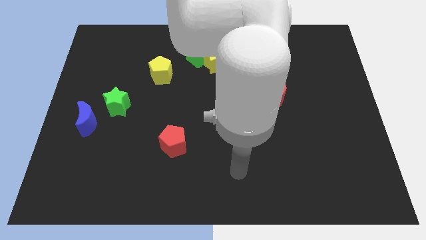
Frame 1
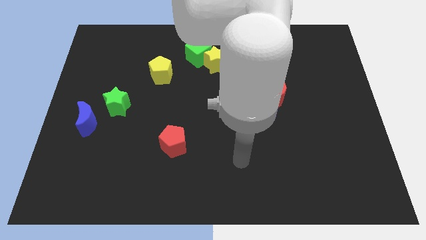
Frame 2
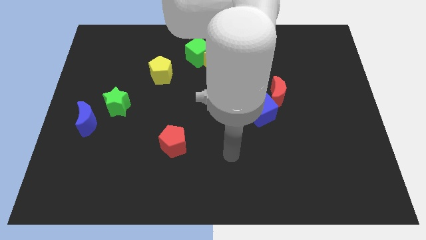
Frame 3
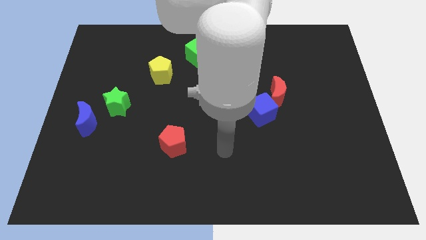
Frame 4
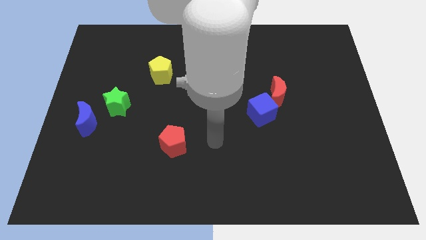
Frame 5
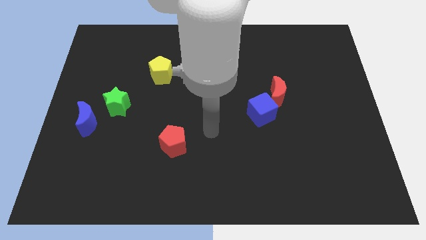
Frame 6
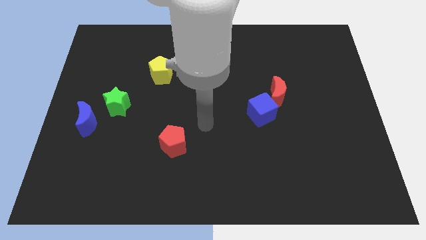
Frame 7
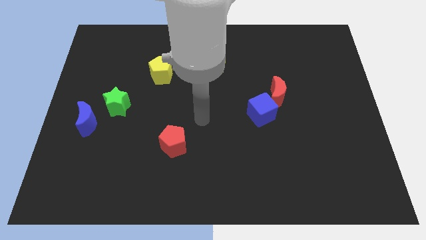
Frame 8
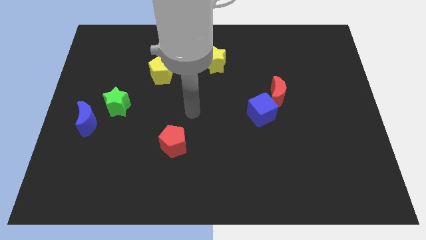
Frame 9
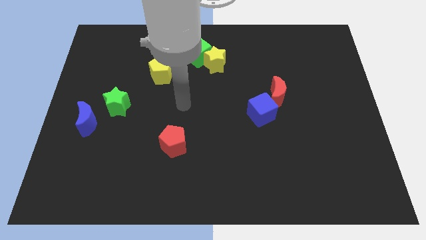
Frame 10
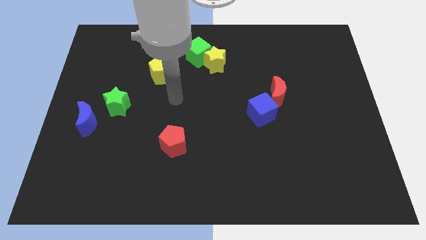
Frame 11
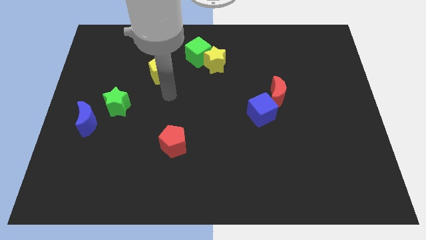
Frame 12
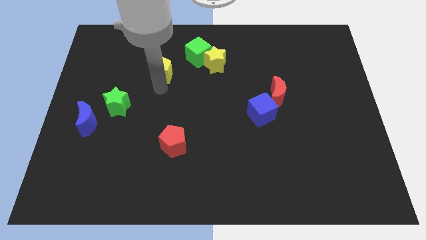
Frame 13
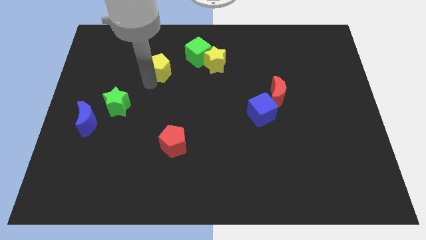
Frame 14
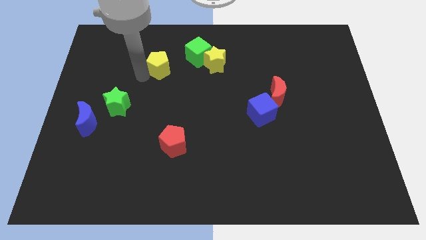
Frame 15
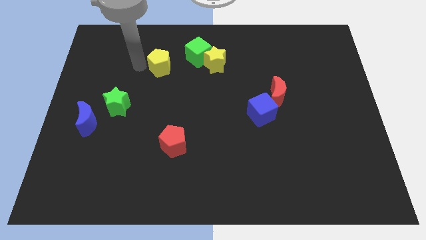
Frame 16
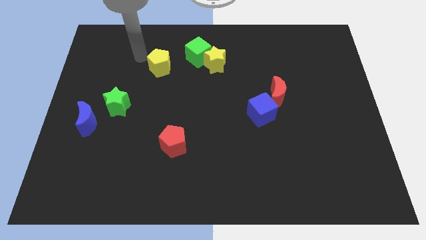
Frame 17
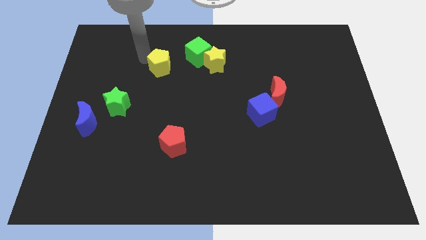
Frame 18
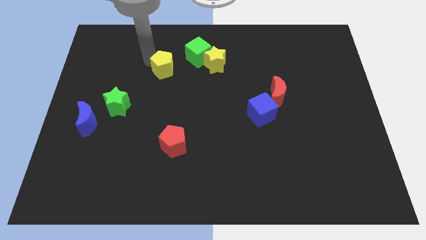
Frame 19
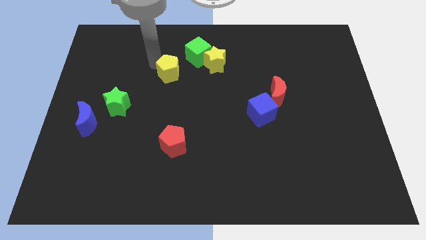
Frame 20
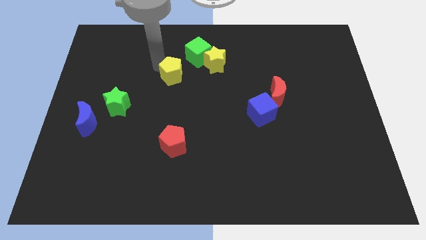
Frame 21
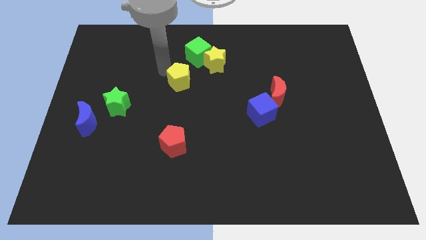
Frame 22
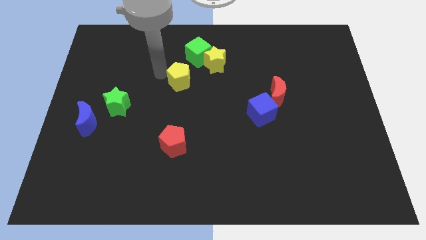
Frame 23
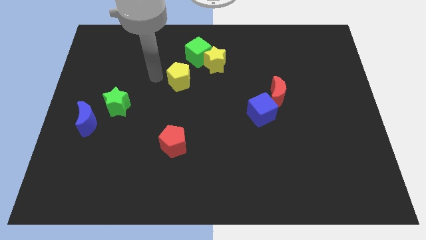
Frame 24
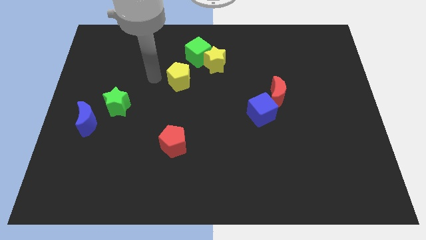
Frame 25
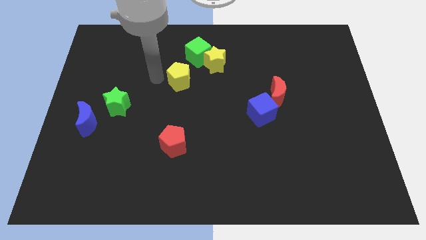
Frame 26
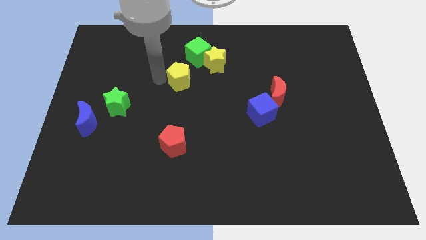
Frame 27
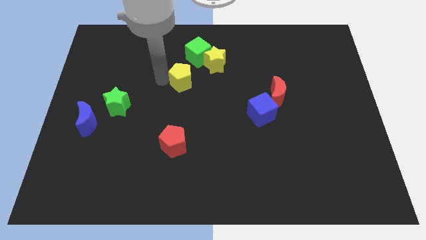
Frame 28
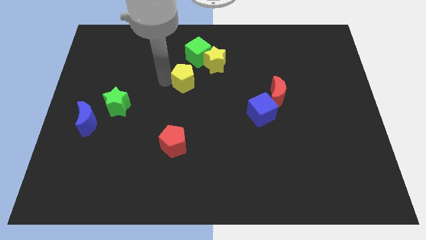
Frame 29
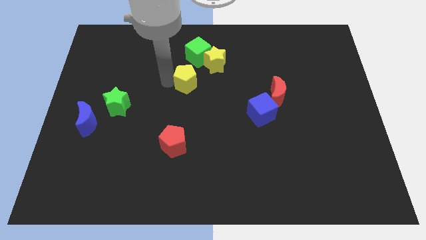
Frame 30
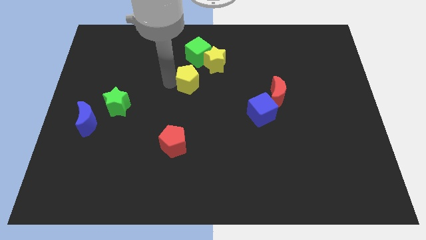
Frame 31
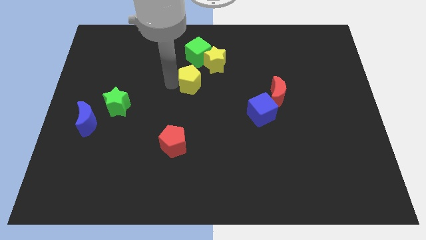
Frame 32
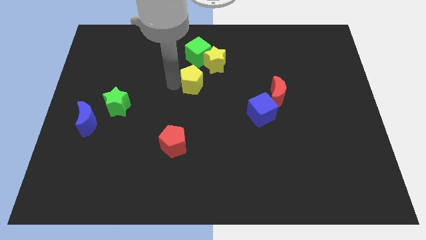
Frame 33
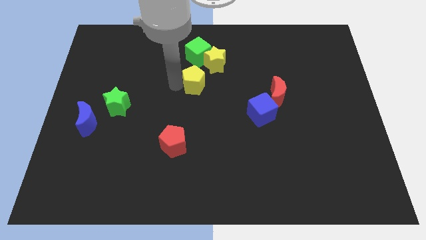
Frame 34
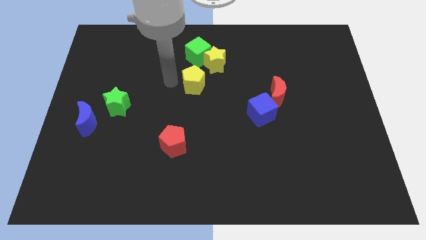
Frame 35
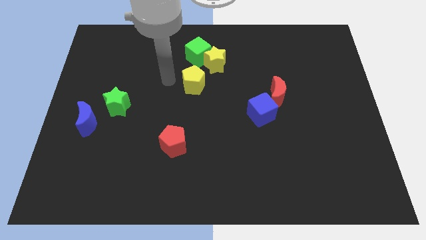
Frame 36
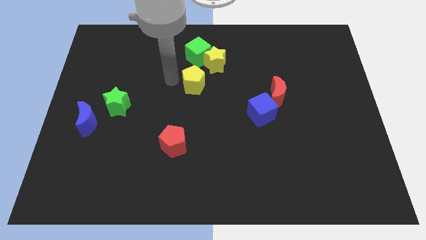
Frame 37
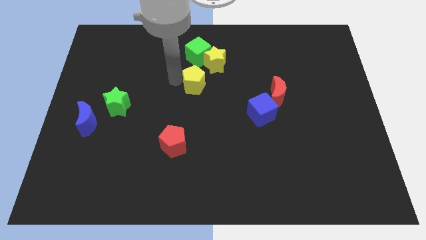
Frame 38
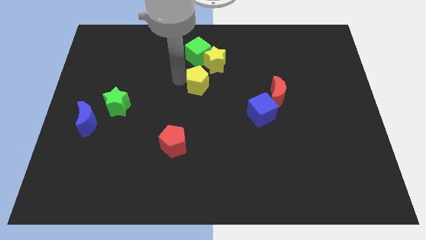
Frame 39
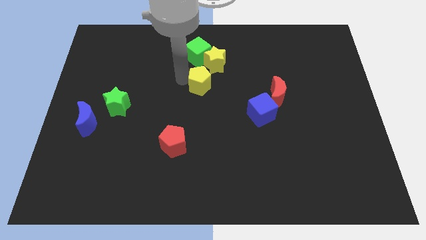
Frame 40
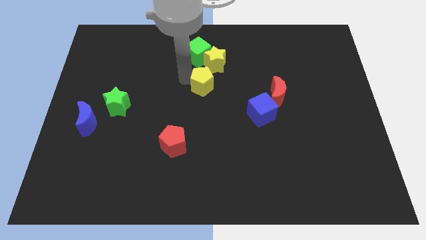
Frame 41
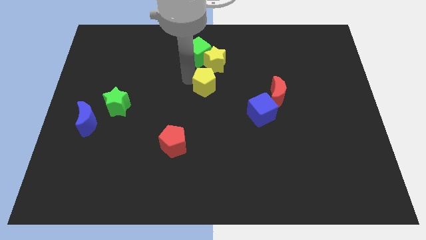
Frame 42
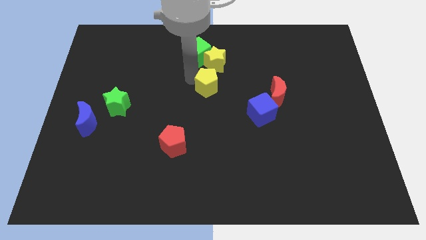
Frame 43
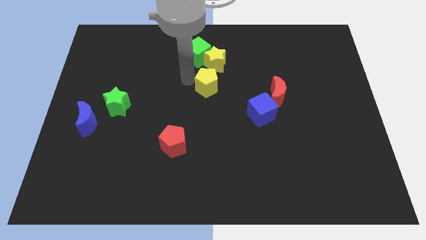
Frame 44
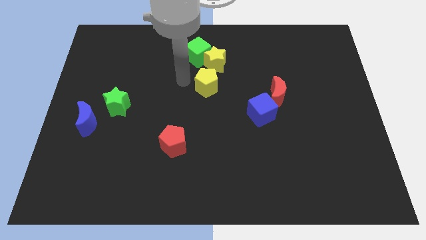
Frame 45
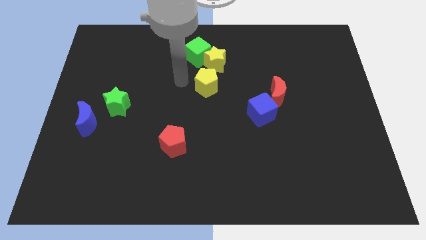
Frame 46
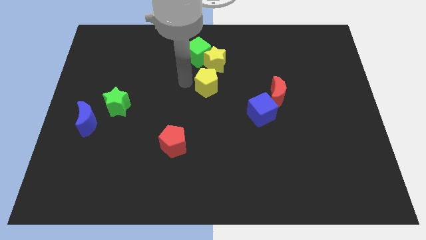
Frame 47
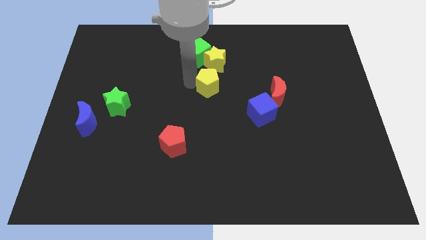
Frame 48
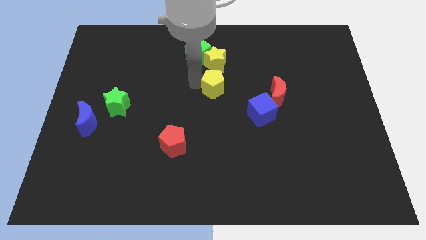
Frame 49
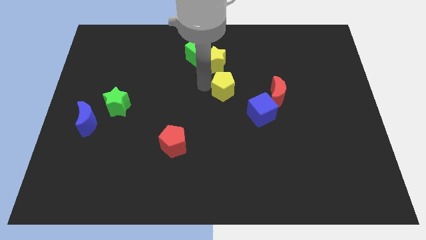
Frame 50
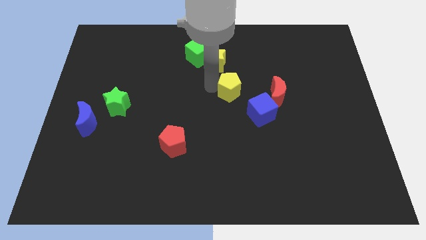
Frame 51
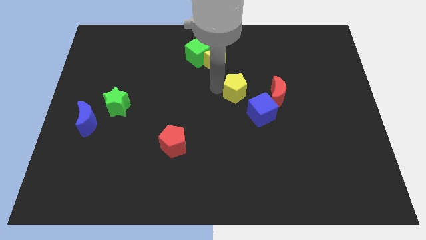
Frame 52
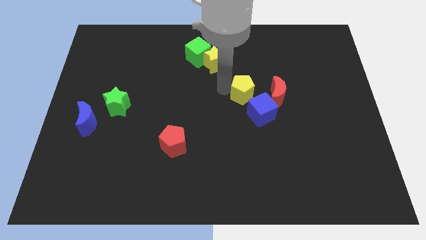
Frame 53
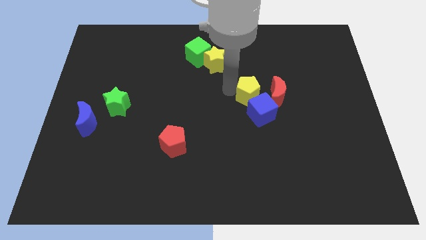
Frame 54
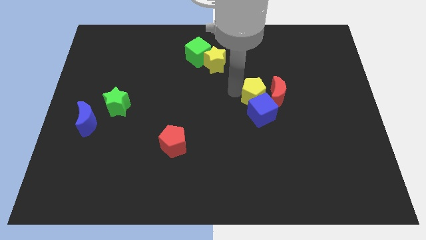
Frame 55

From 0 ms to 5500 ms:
put the yellow pentagon towards the red moon
